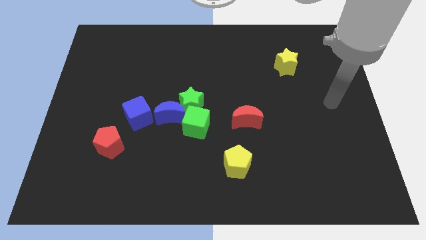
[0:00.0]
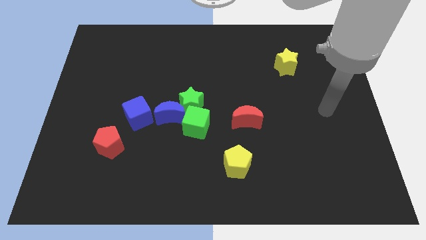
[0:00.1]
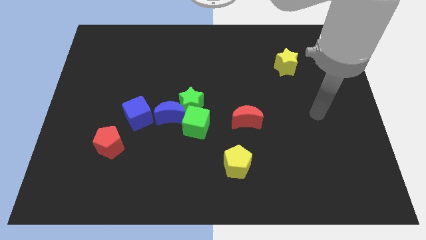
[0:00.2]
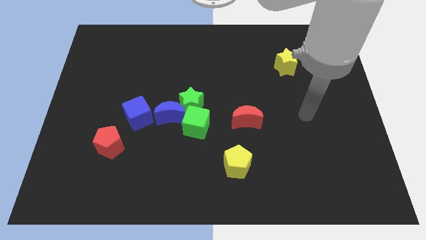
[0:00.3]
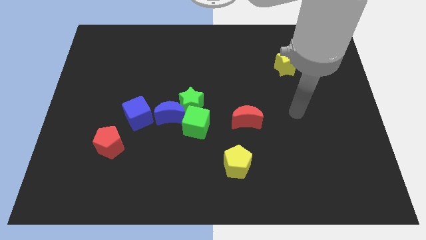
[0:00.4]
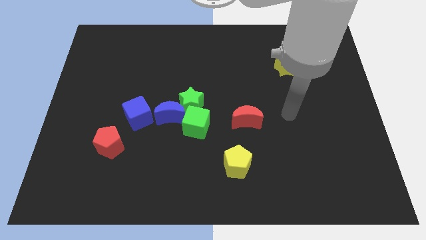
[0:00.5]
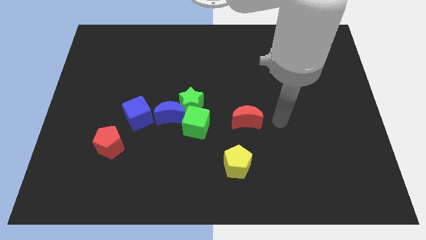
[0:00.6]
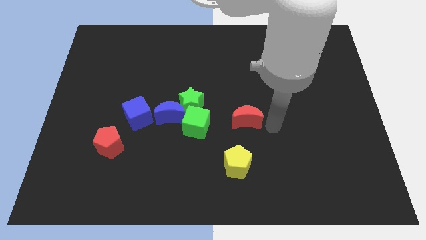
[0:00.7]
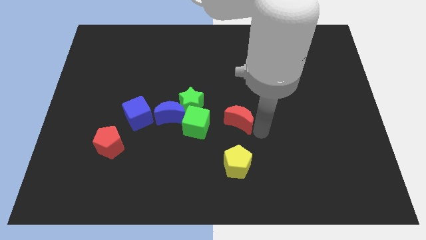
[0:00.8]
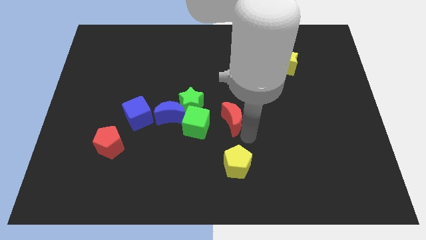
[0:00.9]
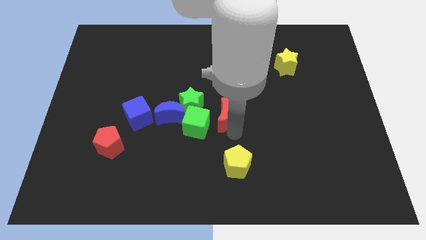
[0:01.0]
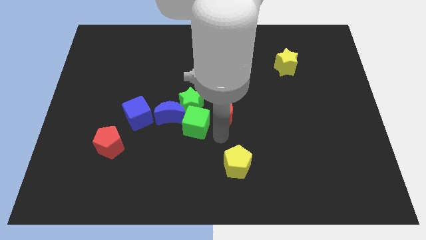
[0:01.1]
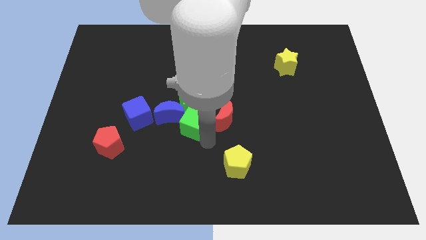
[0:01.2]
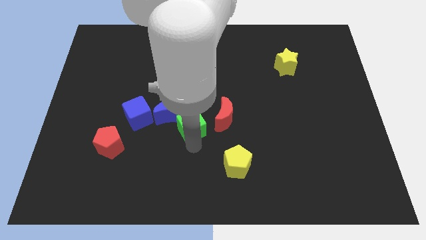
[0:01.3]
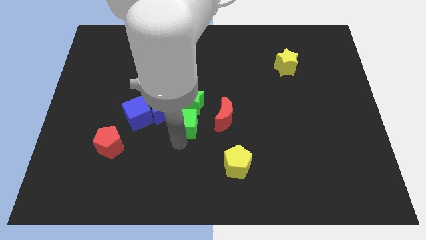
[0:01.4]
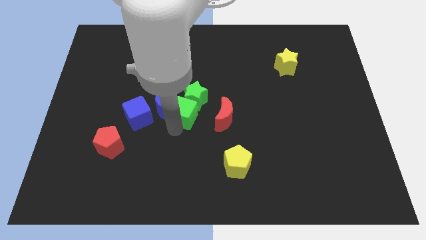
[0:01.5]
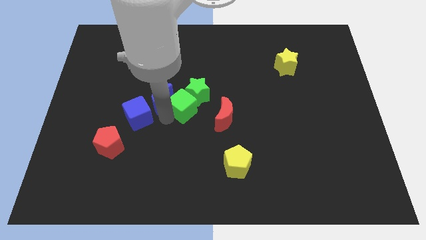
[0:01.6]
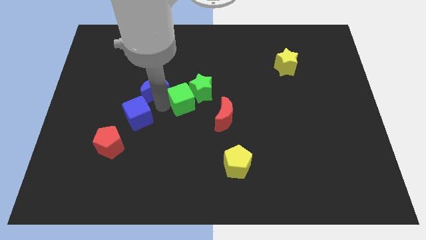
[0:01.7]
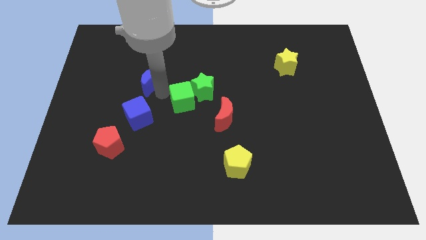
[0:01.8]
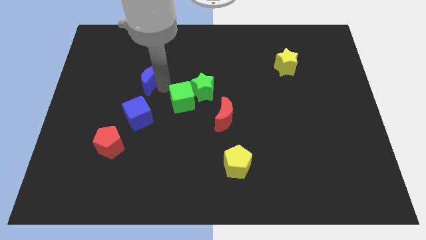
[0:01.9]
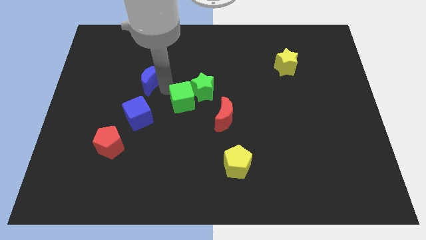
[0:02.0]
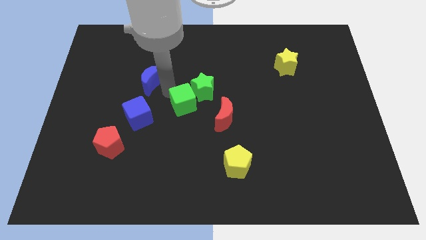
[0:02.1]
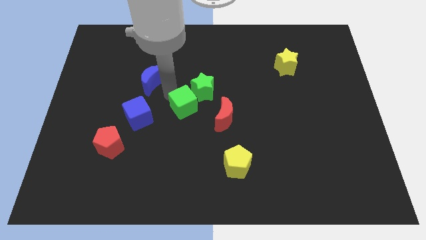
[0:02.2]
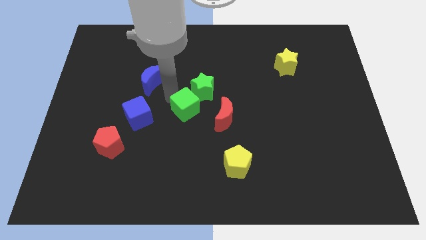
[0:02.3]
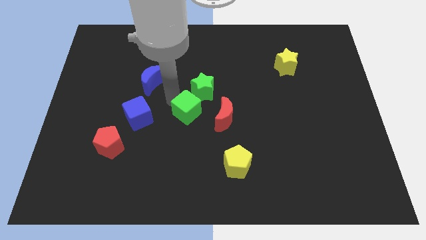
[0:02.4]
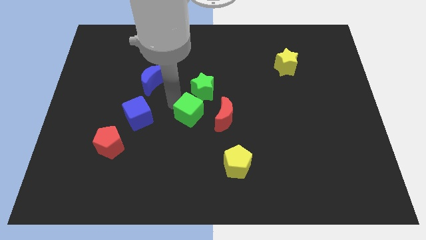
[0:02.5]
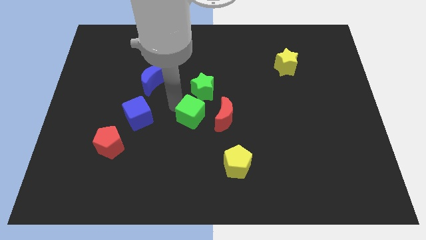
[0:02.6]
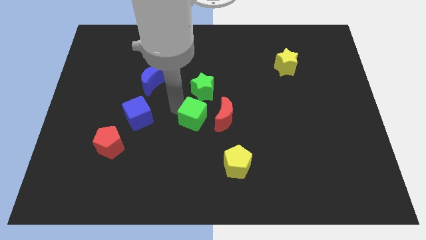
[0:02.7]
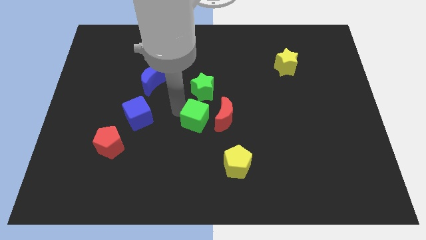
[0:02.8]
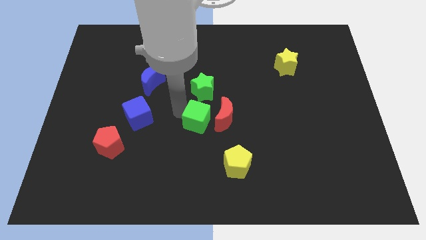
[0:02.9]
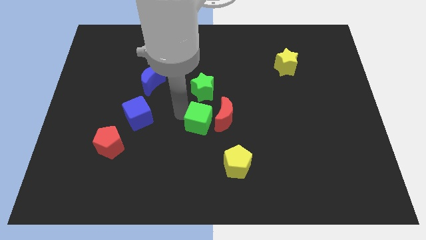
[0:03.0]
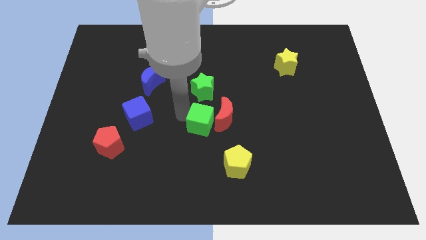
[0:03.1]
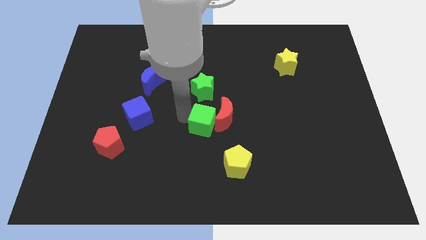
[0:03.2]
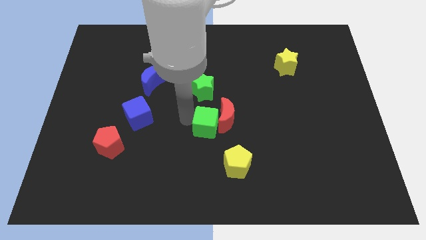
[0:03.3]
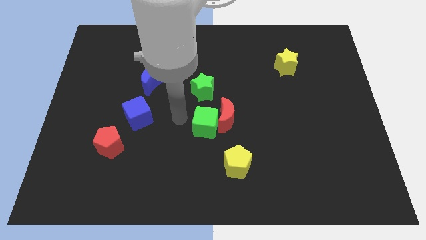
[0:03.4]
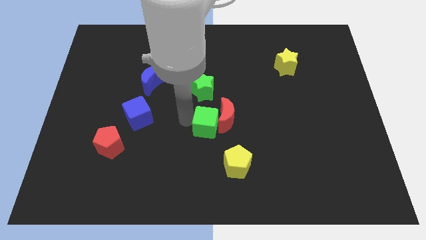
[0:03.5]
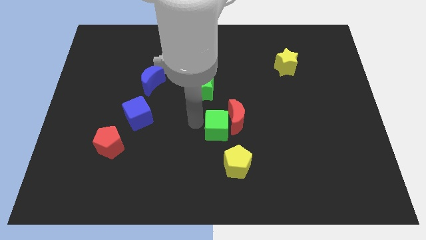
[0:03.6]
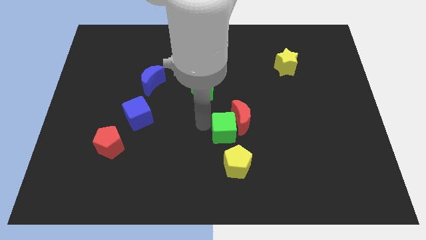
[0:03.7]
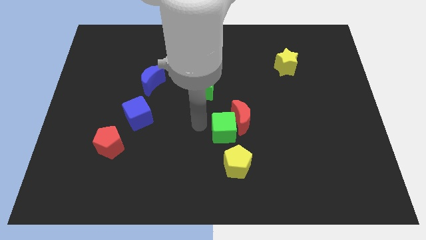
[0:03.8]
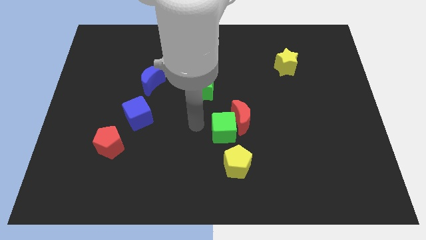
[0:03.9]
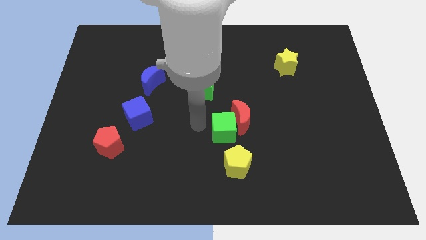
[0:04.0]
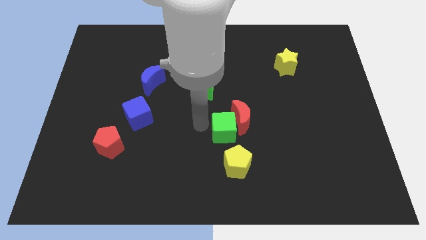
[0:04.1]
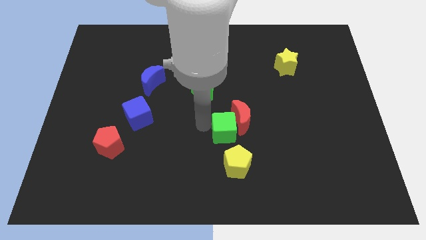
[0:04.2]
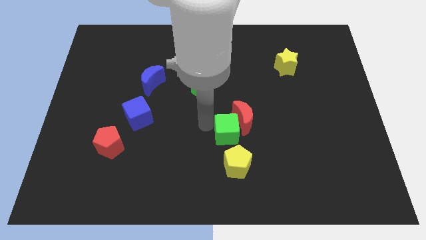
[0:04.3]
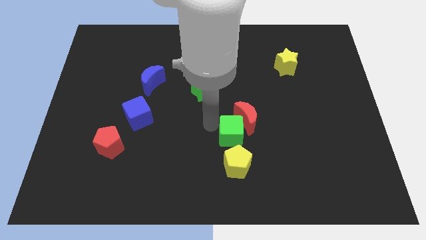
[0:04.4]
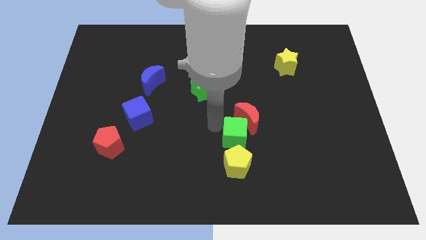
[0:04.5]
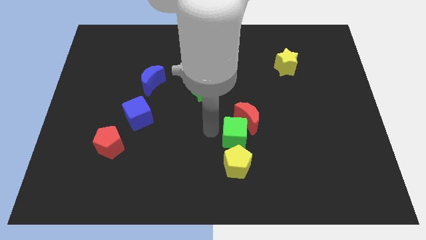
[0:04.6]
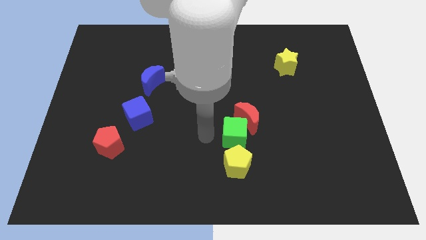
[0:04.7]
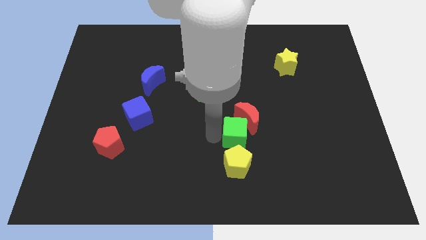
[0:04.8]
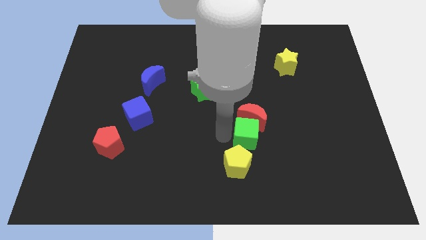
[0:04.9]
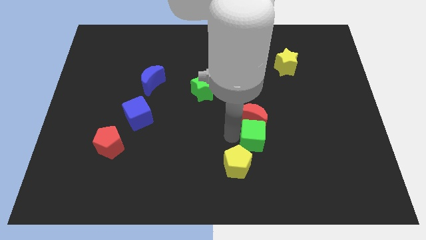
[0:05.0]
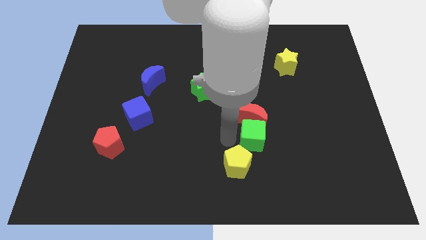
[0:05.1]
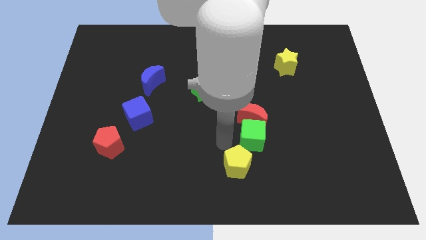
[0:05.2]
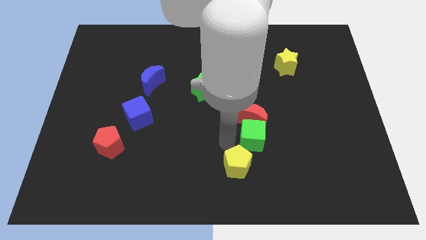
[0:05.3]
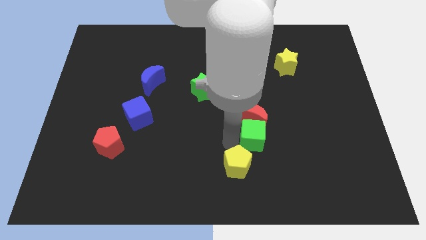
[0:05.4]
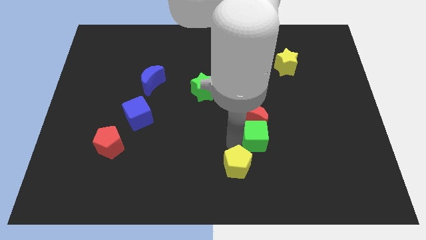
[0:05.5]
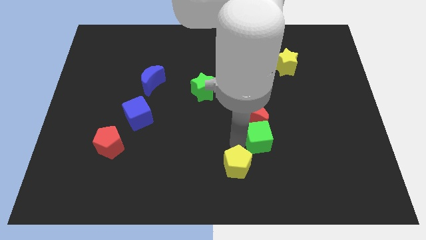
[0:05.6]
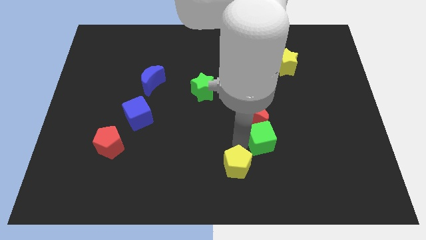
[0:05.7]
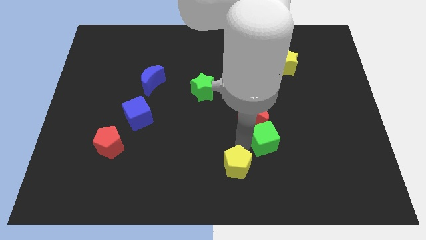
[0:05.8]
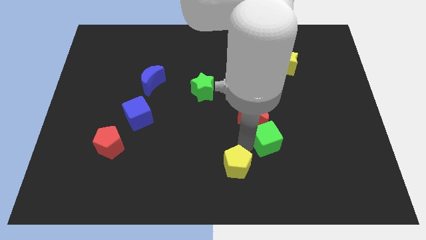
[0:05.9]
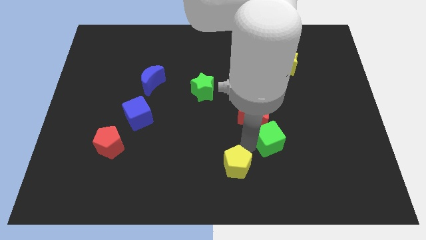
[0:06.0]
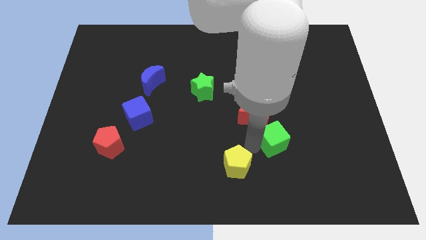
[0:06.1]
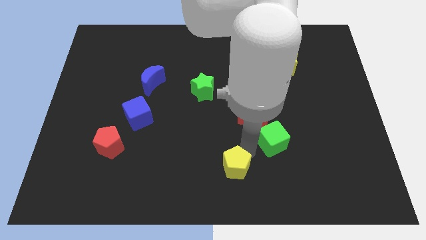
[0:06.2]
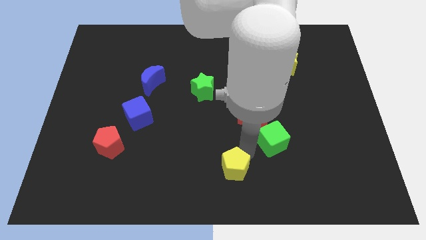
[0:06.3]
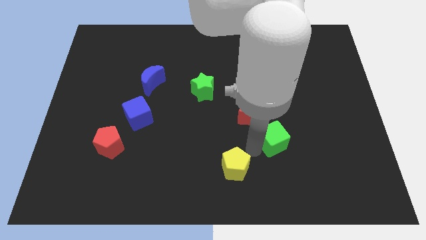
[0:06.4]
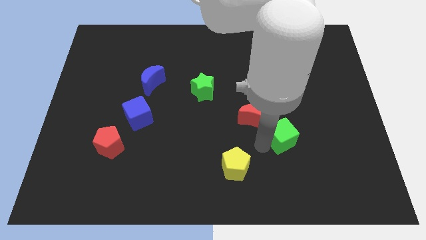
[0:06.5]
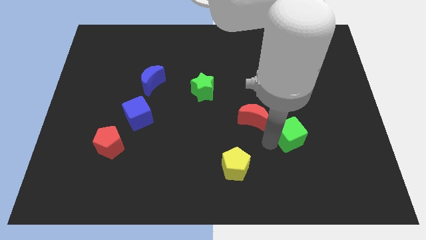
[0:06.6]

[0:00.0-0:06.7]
slide the green cube right

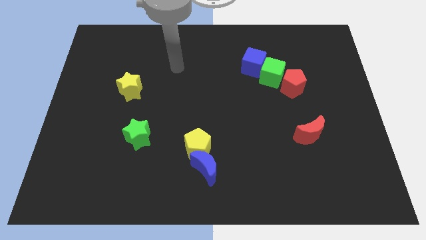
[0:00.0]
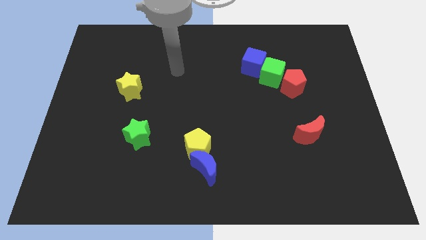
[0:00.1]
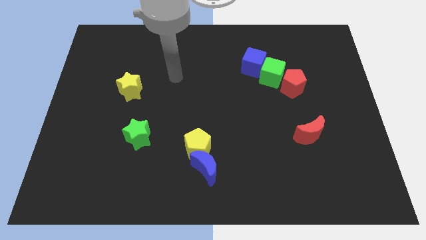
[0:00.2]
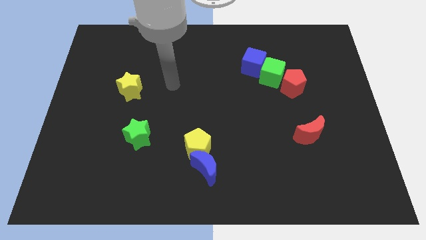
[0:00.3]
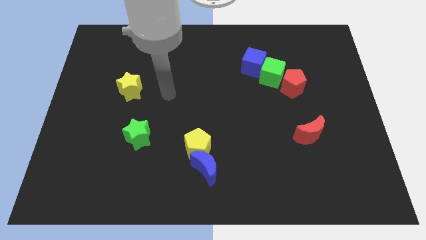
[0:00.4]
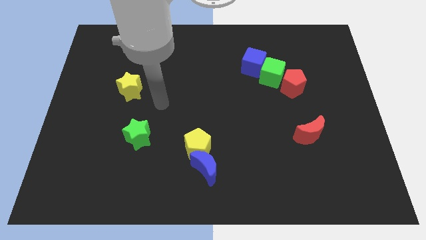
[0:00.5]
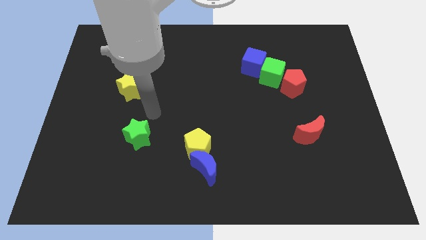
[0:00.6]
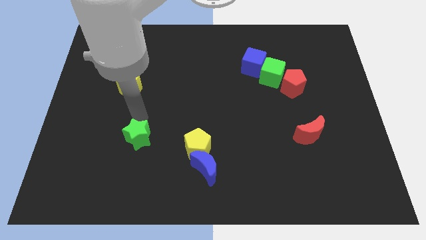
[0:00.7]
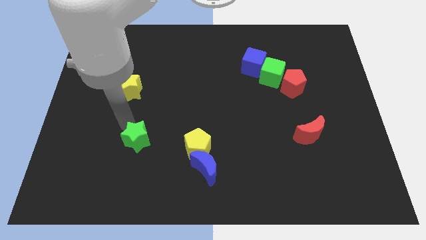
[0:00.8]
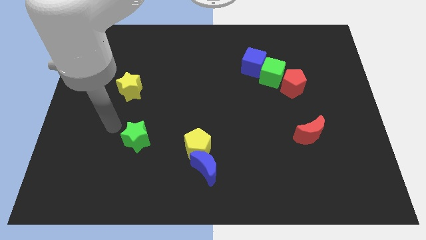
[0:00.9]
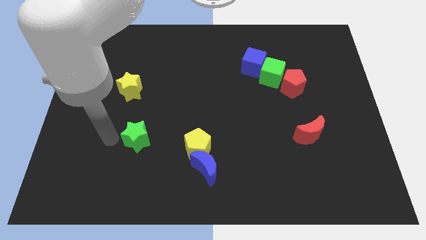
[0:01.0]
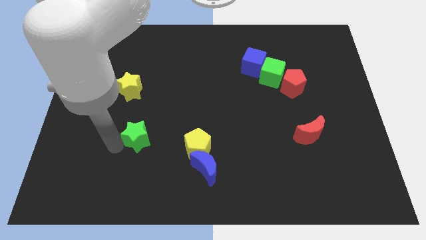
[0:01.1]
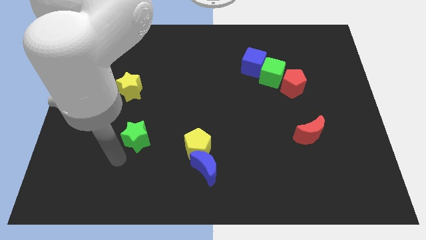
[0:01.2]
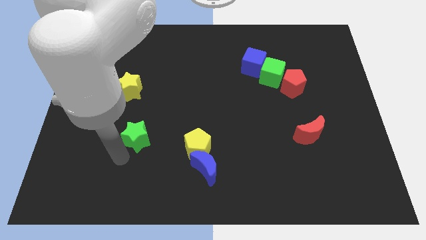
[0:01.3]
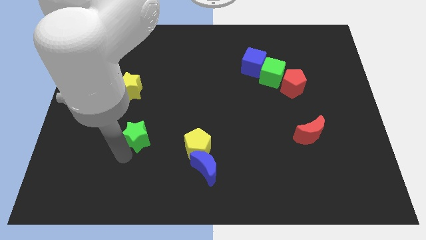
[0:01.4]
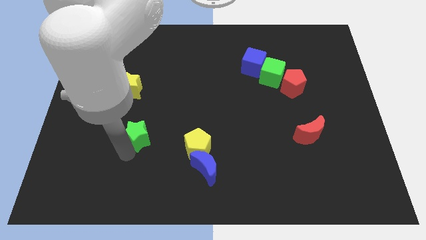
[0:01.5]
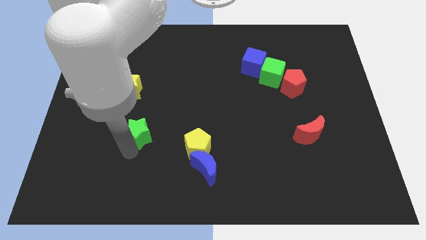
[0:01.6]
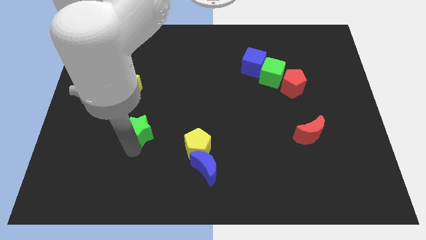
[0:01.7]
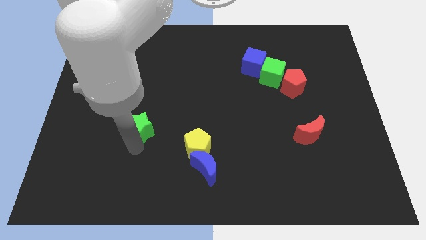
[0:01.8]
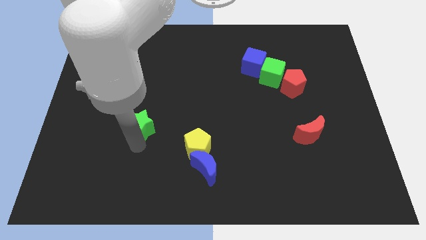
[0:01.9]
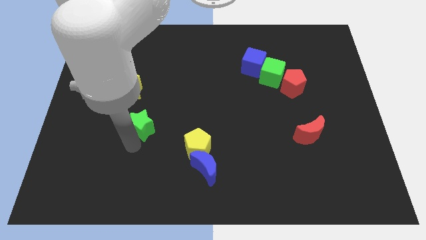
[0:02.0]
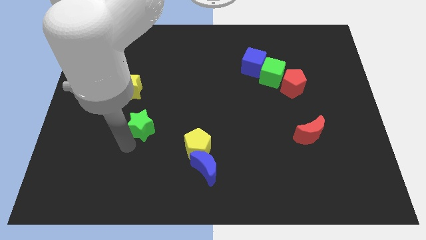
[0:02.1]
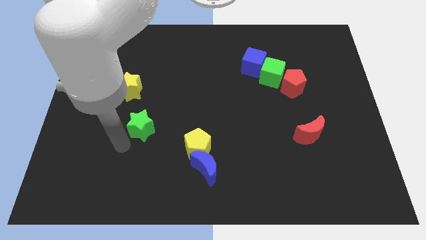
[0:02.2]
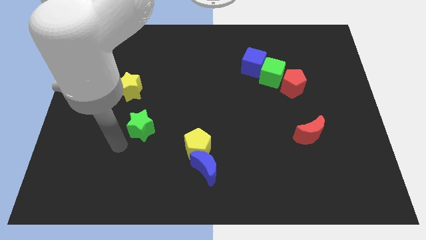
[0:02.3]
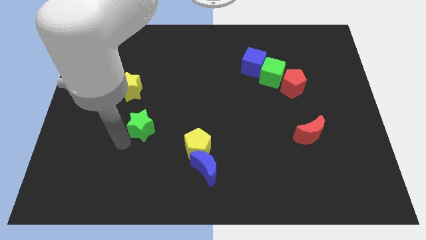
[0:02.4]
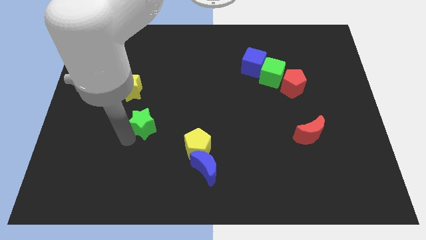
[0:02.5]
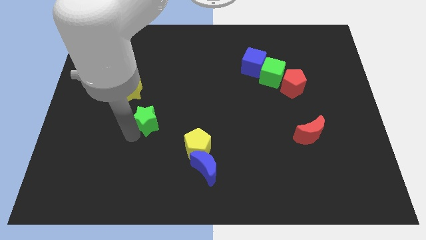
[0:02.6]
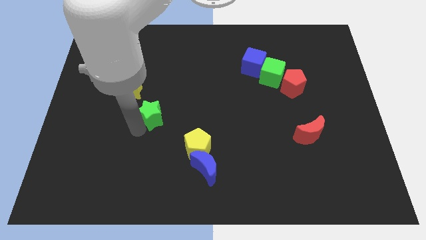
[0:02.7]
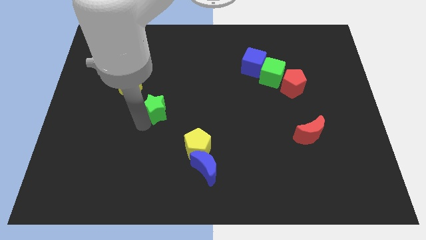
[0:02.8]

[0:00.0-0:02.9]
move the green star somewhat upwards and then right
